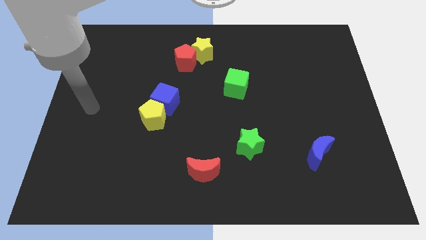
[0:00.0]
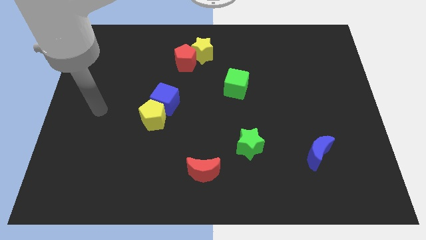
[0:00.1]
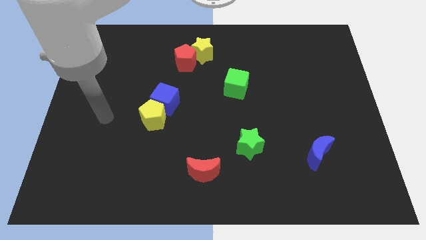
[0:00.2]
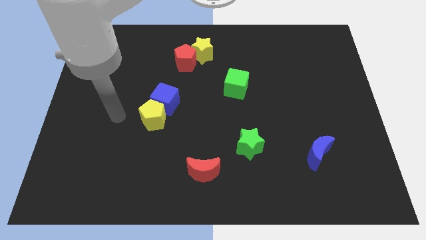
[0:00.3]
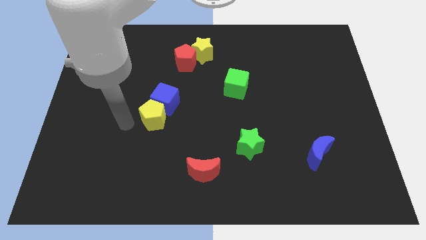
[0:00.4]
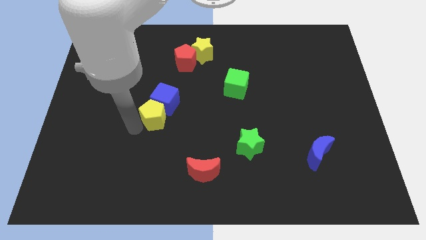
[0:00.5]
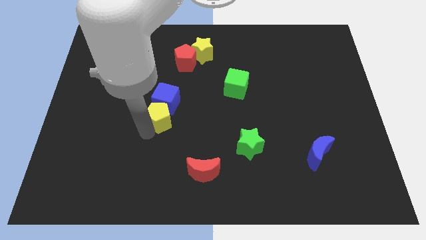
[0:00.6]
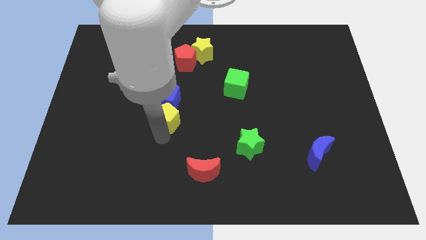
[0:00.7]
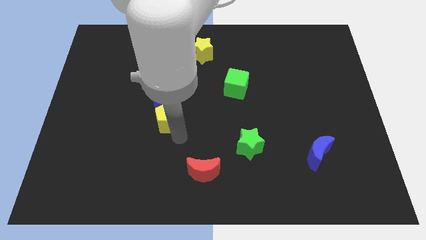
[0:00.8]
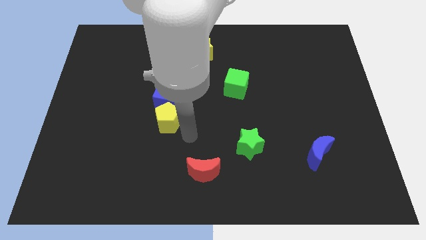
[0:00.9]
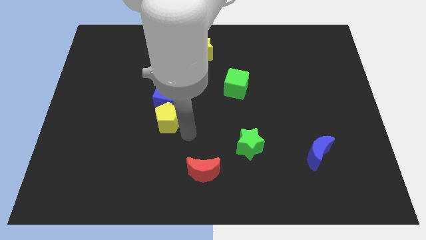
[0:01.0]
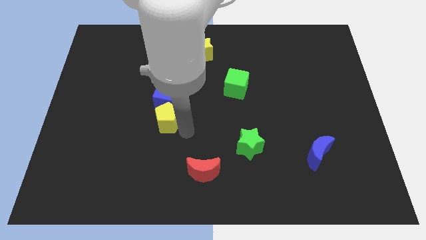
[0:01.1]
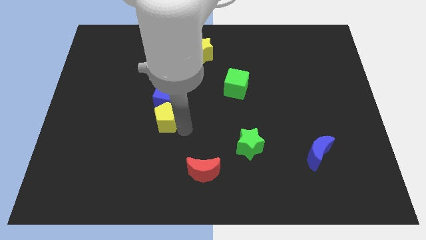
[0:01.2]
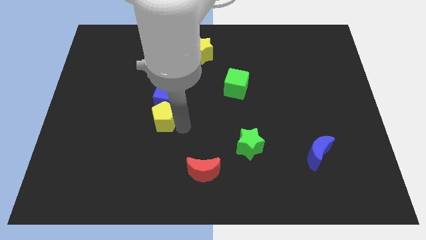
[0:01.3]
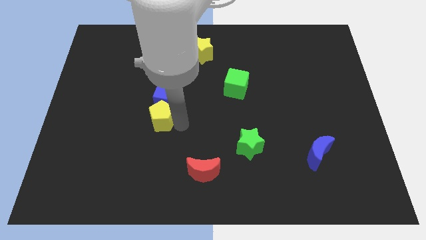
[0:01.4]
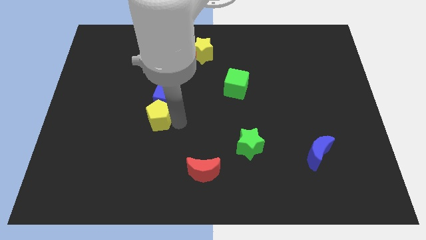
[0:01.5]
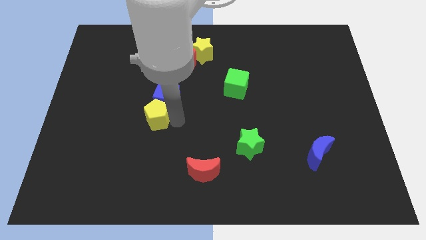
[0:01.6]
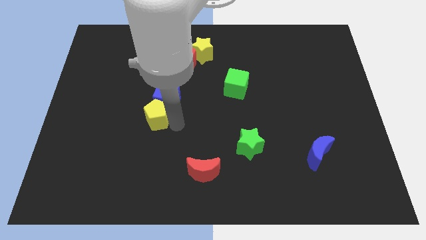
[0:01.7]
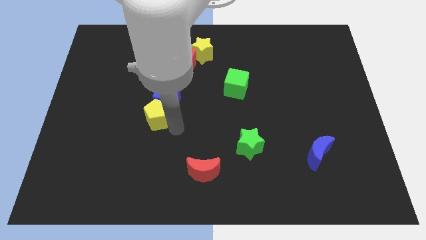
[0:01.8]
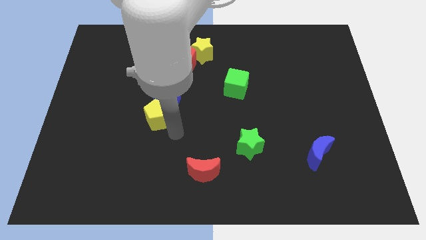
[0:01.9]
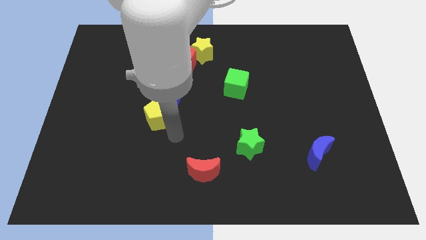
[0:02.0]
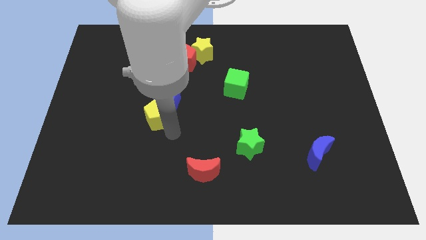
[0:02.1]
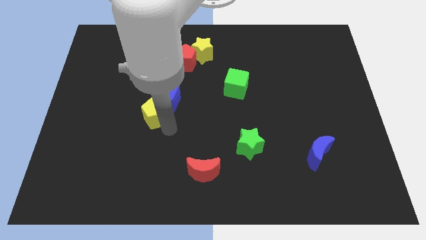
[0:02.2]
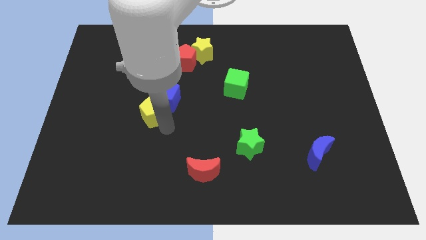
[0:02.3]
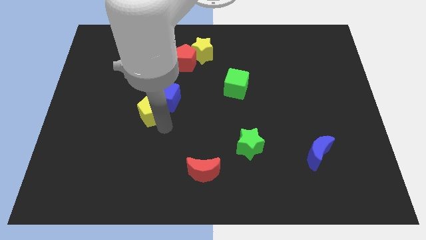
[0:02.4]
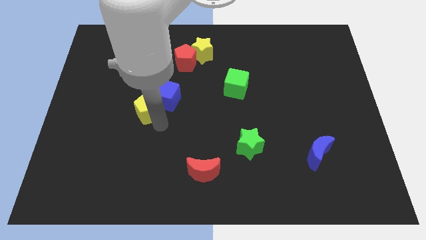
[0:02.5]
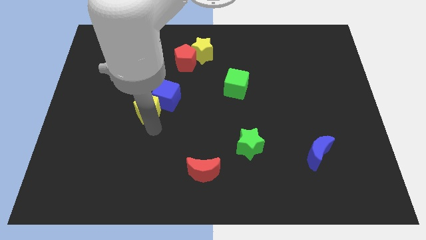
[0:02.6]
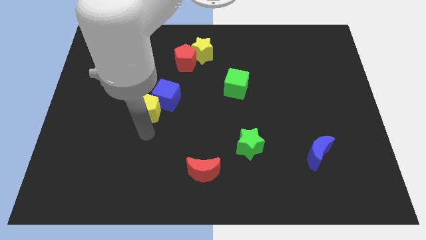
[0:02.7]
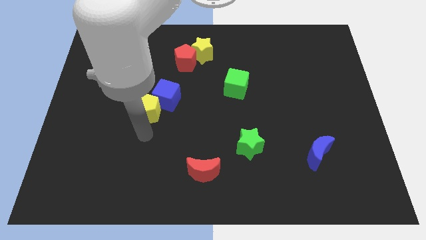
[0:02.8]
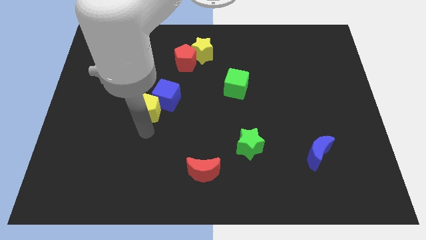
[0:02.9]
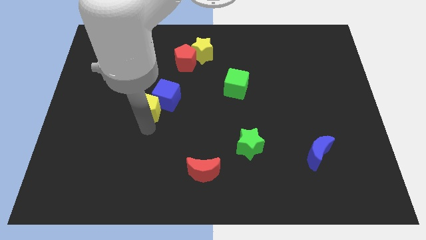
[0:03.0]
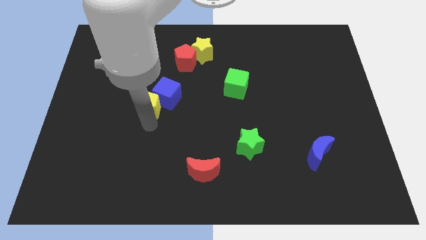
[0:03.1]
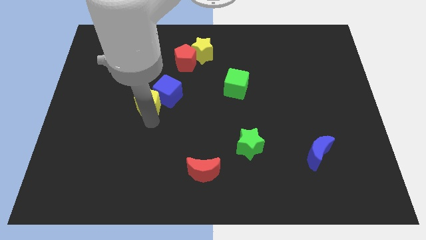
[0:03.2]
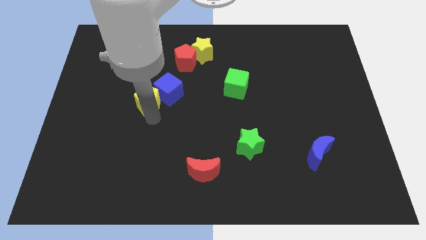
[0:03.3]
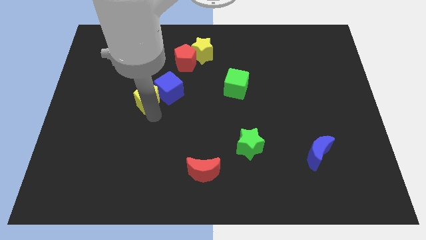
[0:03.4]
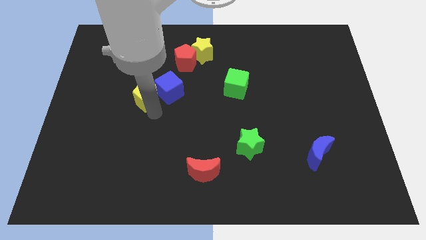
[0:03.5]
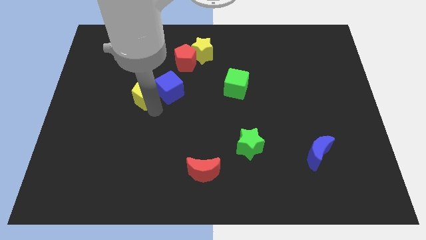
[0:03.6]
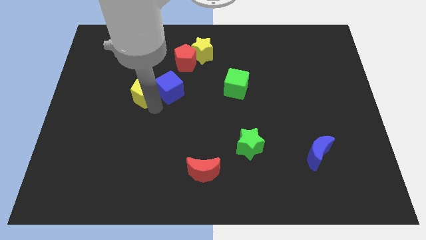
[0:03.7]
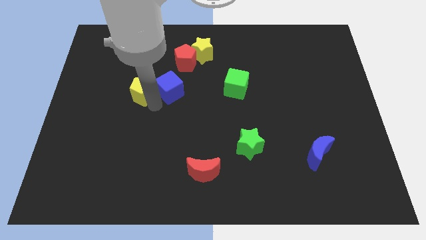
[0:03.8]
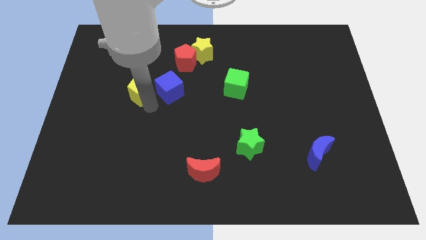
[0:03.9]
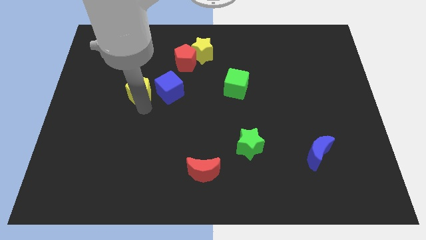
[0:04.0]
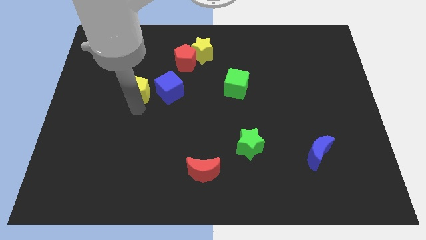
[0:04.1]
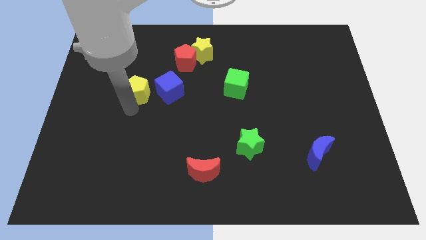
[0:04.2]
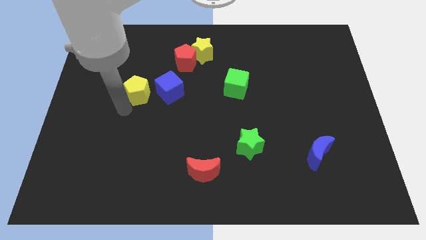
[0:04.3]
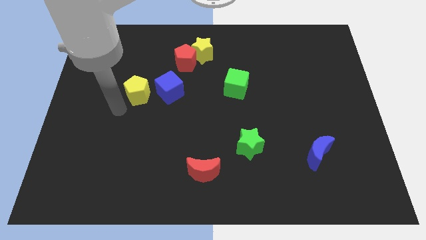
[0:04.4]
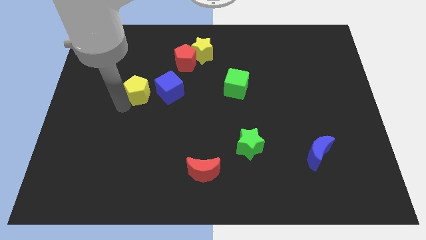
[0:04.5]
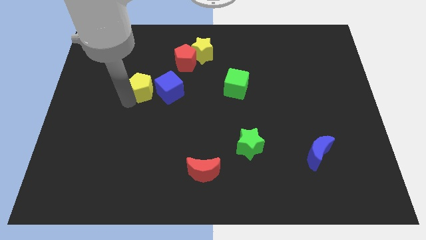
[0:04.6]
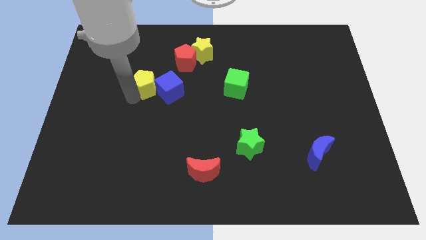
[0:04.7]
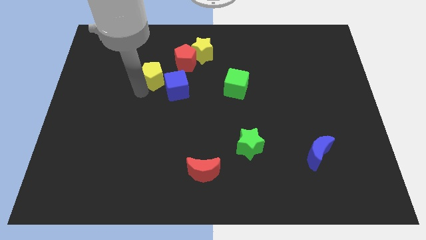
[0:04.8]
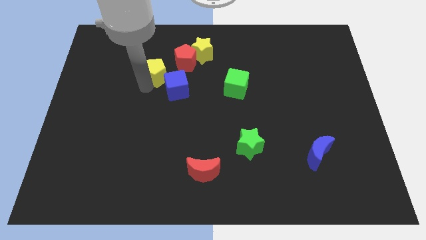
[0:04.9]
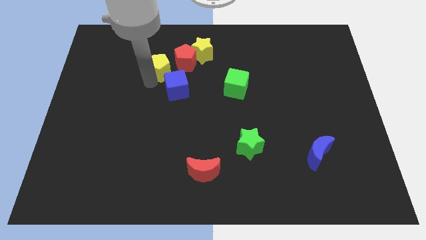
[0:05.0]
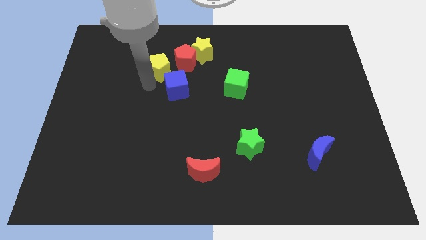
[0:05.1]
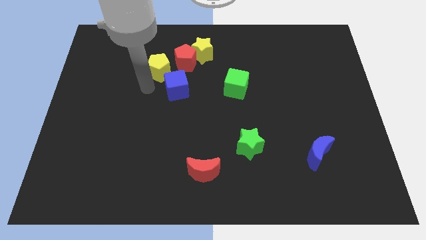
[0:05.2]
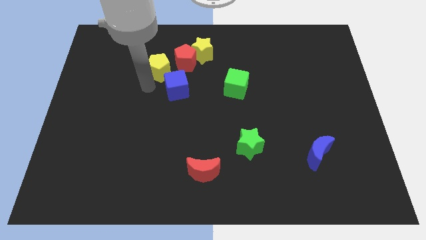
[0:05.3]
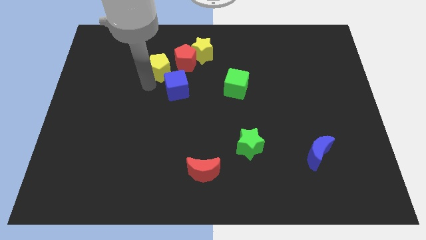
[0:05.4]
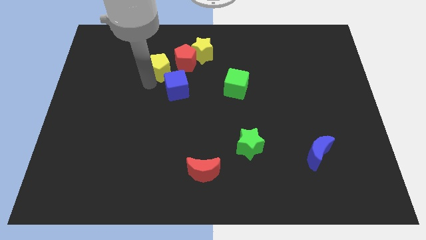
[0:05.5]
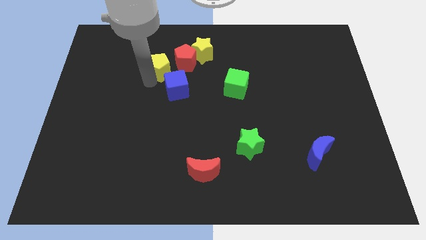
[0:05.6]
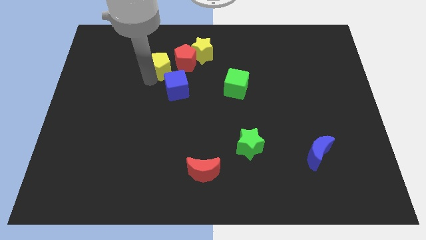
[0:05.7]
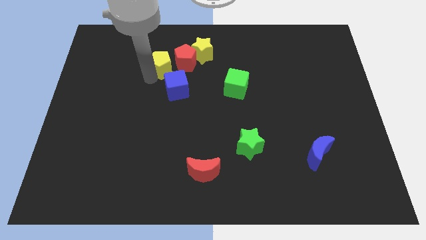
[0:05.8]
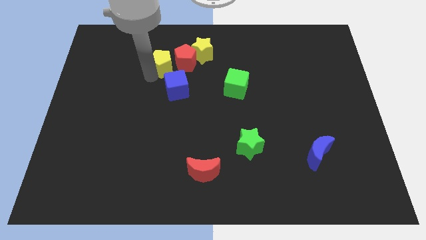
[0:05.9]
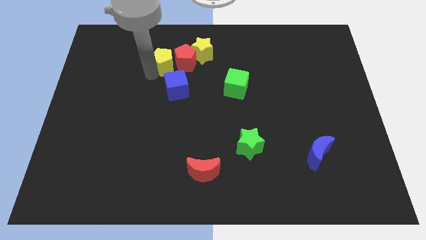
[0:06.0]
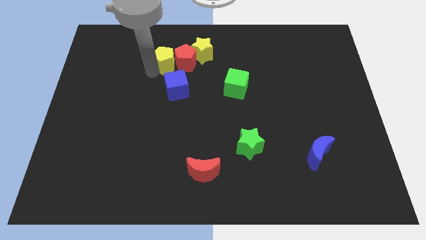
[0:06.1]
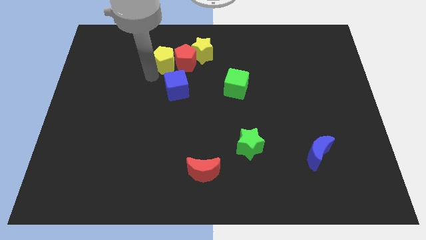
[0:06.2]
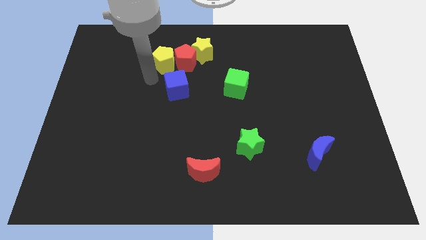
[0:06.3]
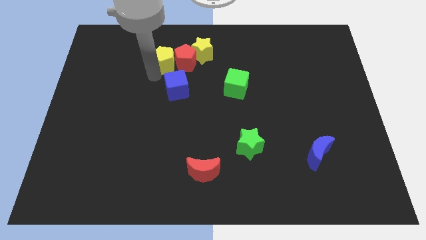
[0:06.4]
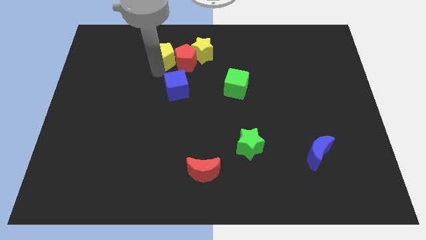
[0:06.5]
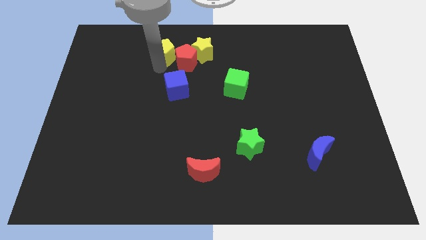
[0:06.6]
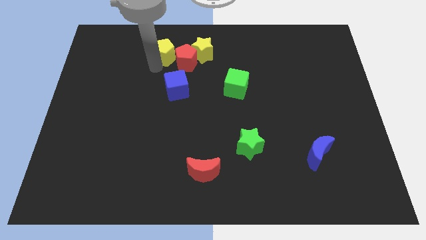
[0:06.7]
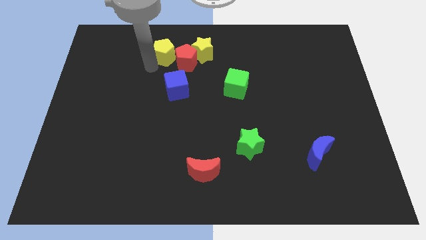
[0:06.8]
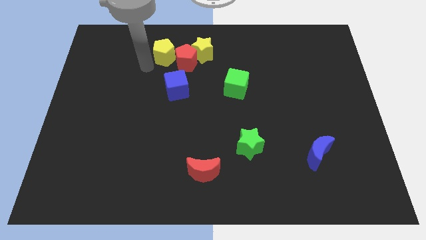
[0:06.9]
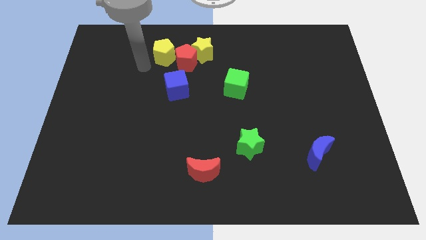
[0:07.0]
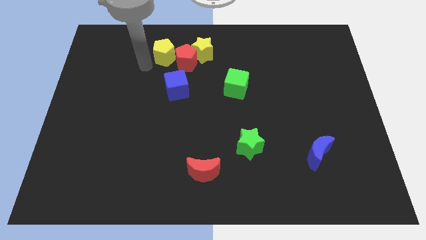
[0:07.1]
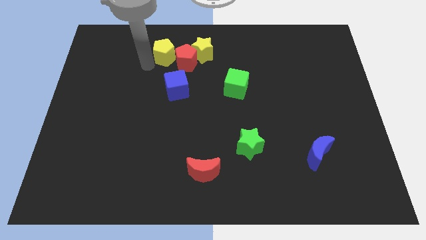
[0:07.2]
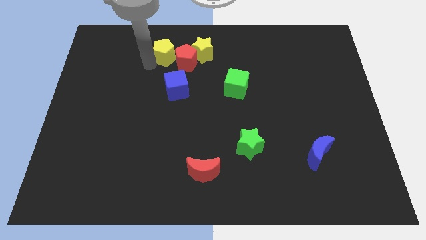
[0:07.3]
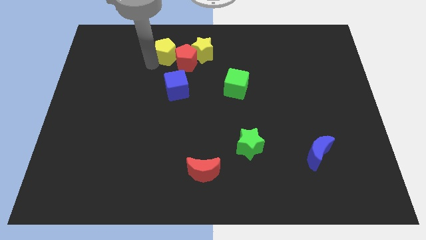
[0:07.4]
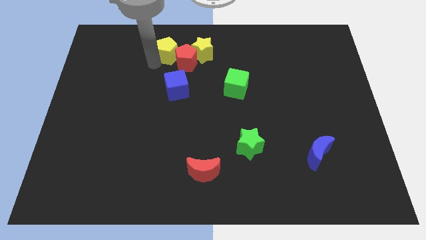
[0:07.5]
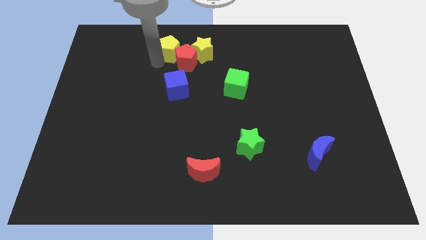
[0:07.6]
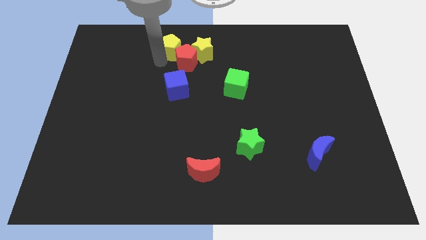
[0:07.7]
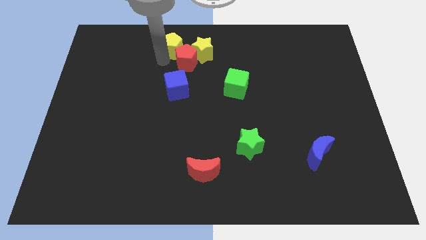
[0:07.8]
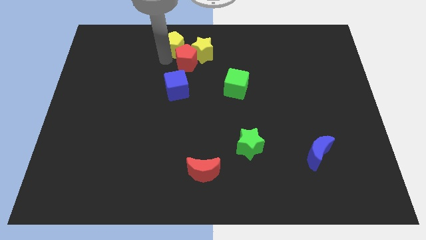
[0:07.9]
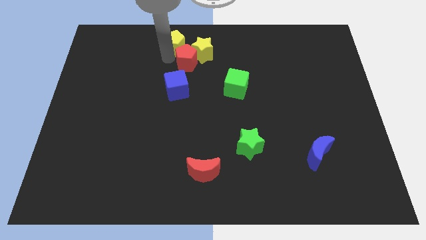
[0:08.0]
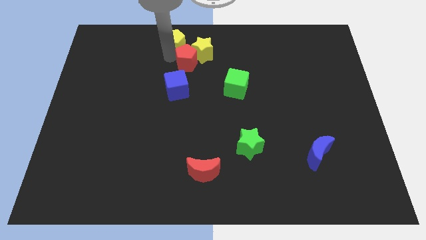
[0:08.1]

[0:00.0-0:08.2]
put the yellow pentagon to the top
